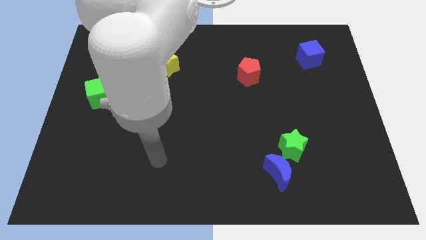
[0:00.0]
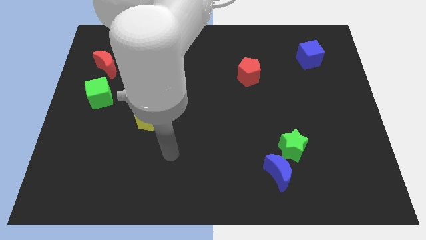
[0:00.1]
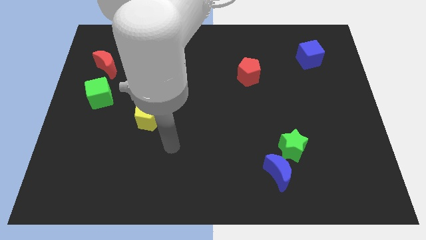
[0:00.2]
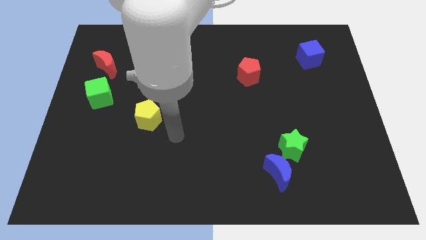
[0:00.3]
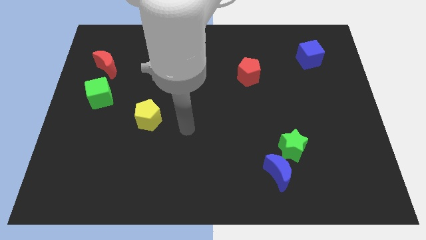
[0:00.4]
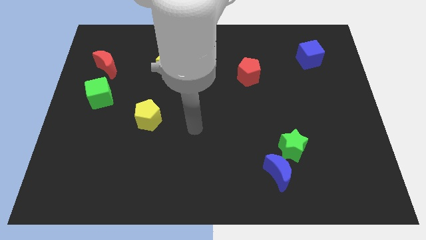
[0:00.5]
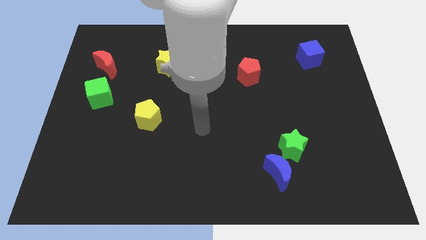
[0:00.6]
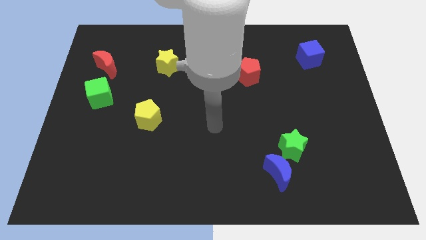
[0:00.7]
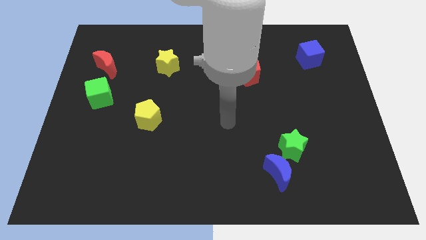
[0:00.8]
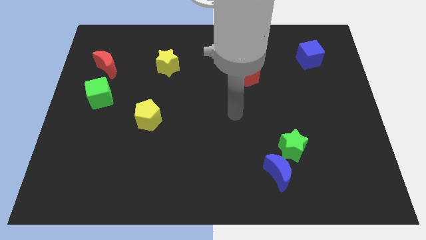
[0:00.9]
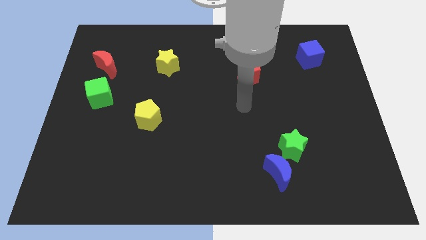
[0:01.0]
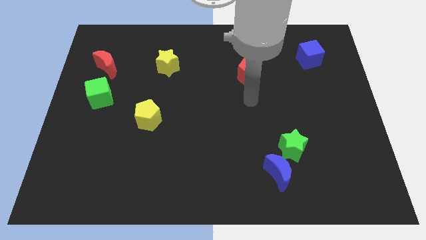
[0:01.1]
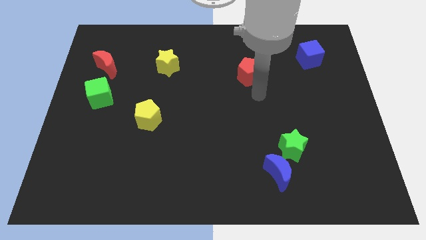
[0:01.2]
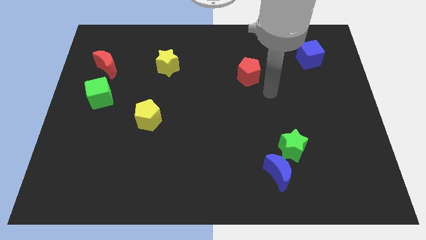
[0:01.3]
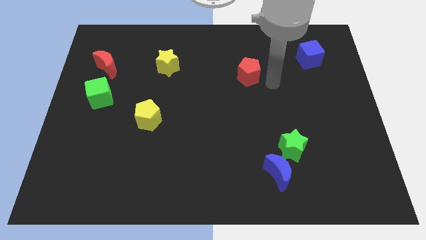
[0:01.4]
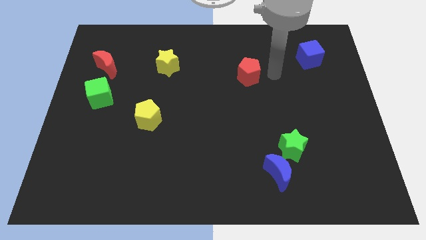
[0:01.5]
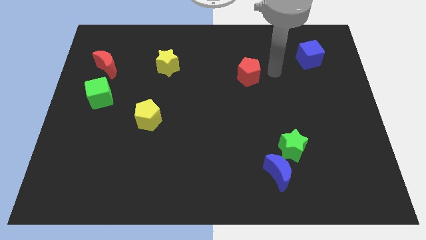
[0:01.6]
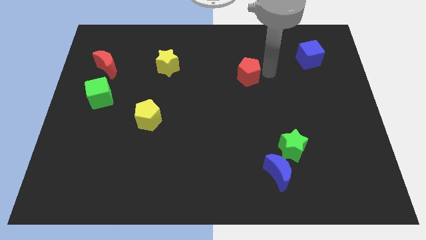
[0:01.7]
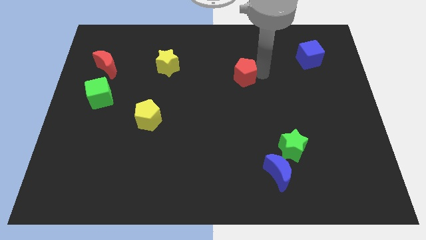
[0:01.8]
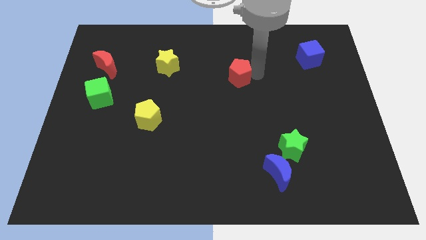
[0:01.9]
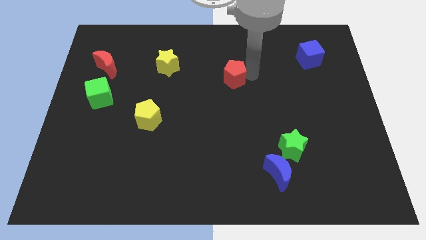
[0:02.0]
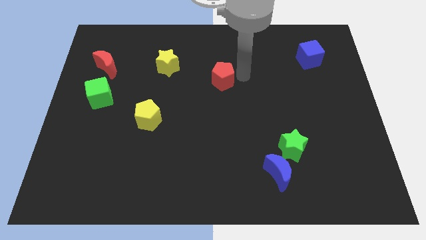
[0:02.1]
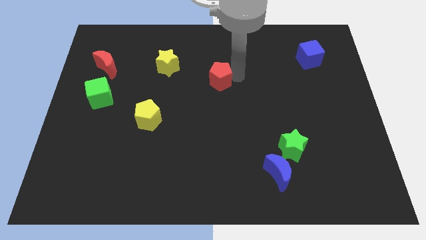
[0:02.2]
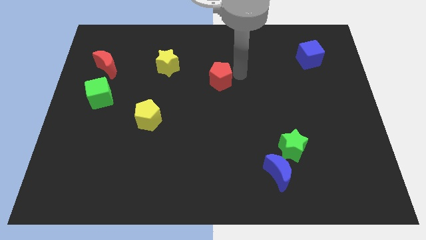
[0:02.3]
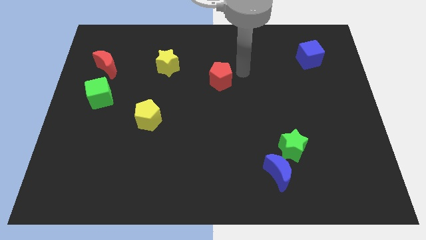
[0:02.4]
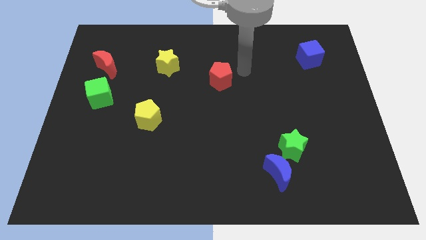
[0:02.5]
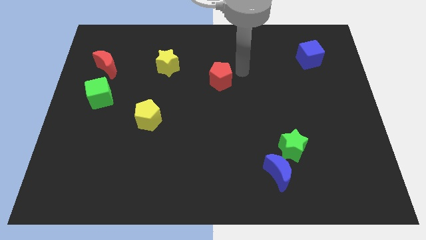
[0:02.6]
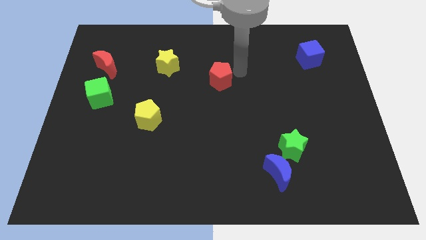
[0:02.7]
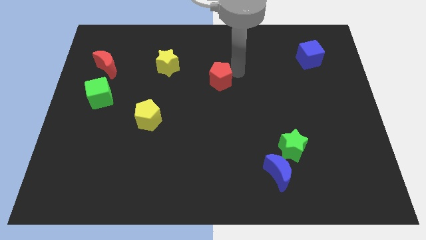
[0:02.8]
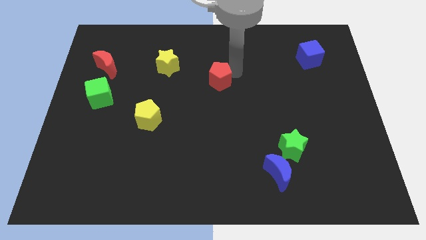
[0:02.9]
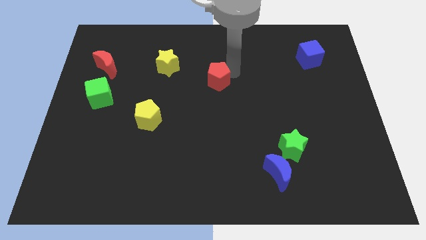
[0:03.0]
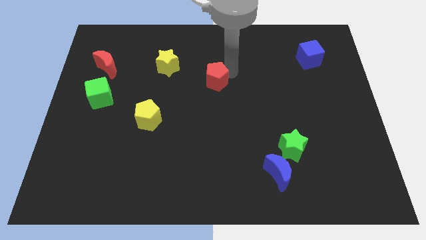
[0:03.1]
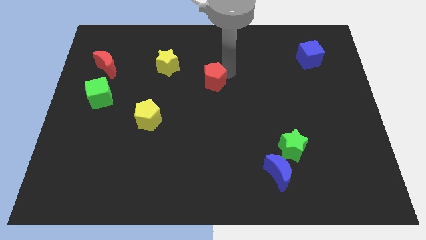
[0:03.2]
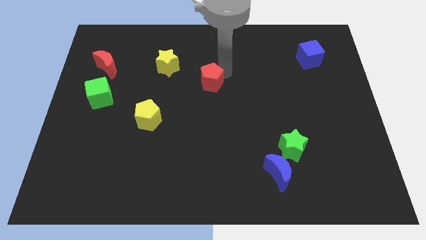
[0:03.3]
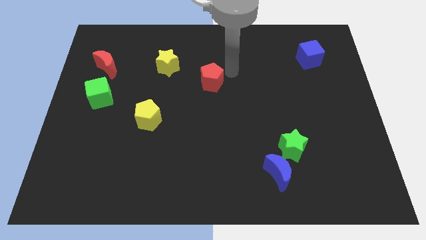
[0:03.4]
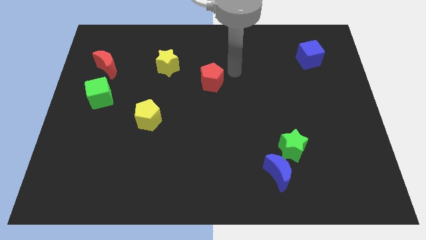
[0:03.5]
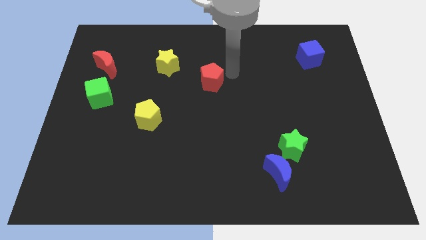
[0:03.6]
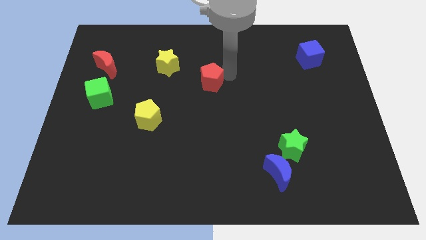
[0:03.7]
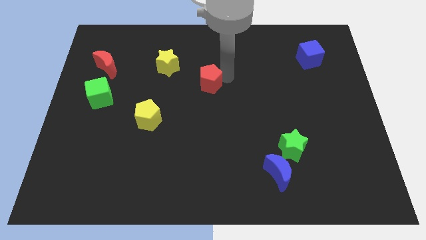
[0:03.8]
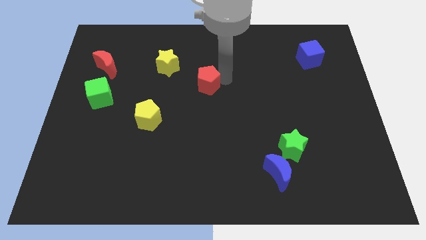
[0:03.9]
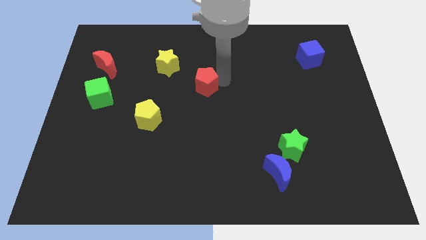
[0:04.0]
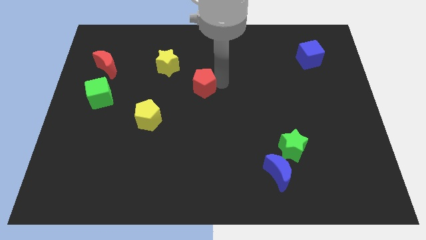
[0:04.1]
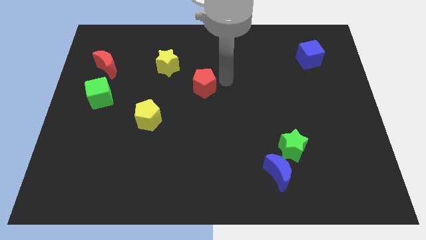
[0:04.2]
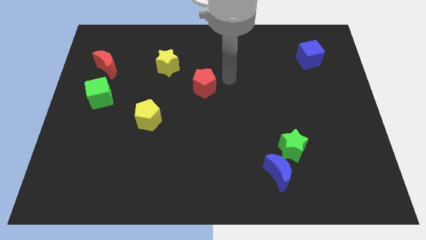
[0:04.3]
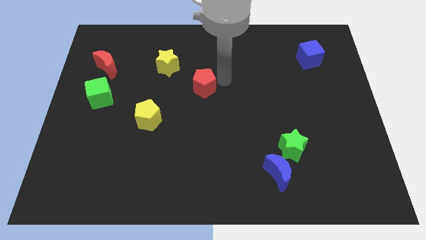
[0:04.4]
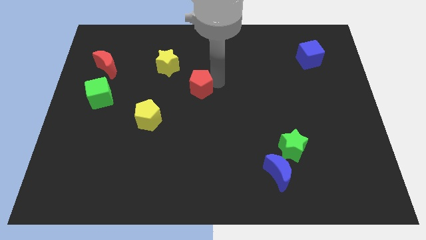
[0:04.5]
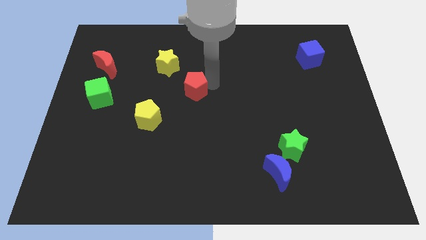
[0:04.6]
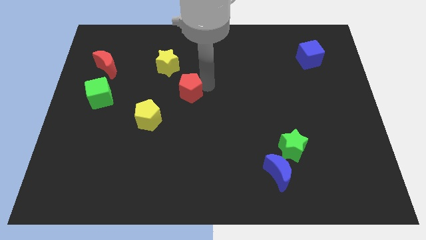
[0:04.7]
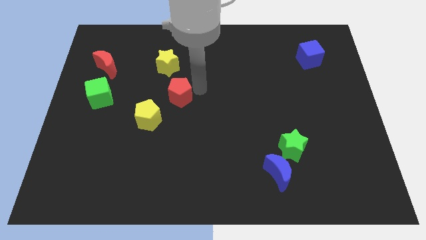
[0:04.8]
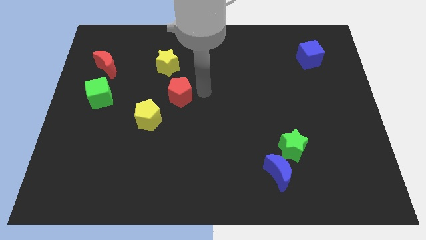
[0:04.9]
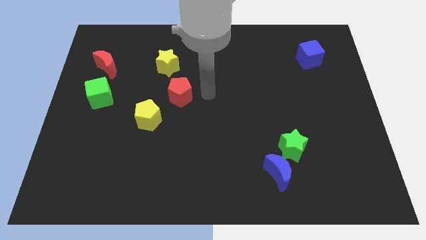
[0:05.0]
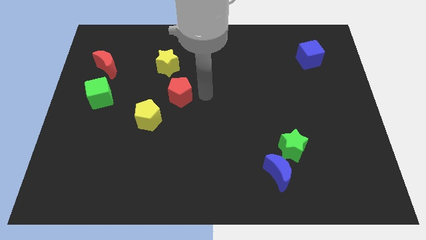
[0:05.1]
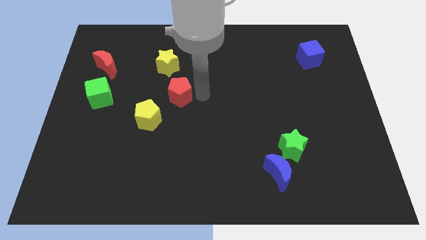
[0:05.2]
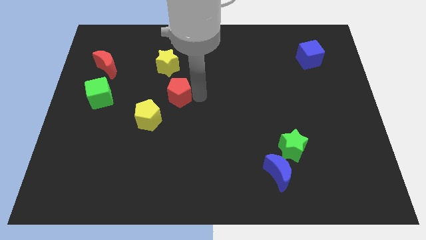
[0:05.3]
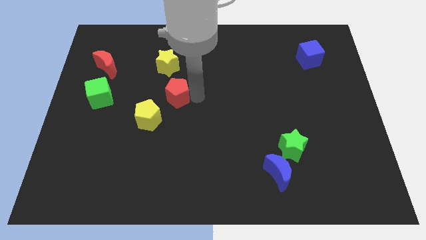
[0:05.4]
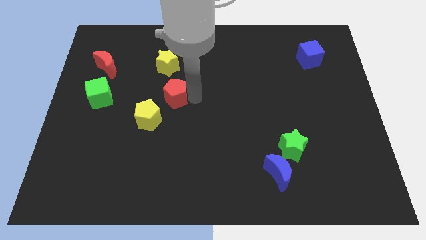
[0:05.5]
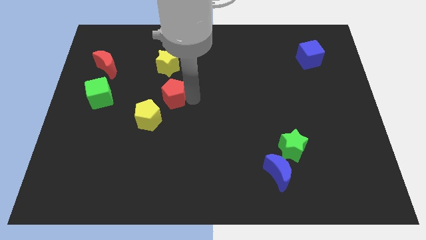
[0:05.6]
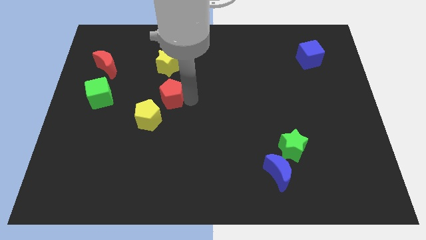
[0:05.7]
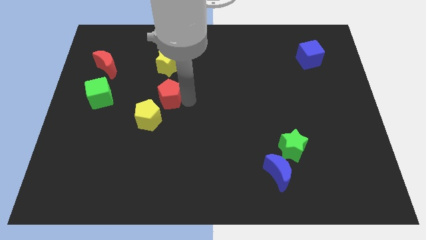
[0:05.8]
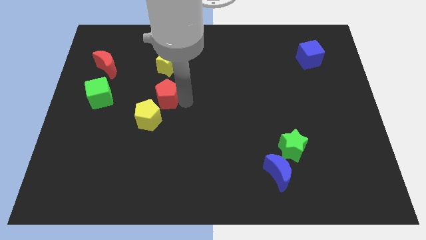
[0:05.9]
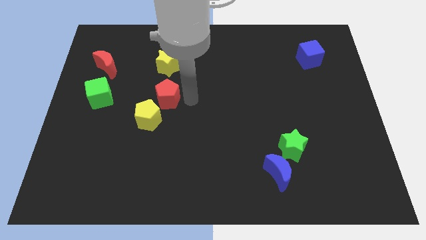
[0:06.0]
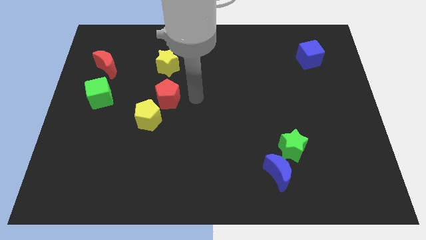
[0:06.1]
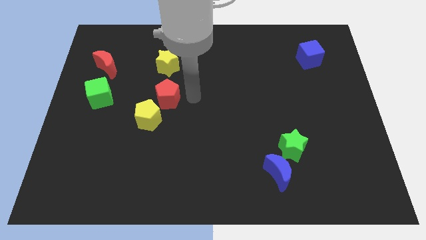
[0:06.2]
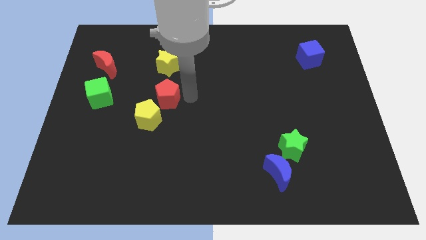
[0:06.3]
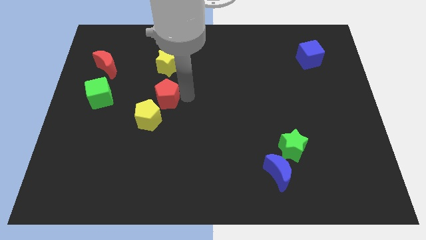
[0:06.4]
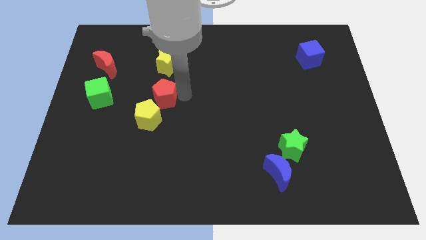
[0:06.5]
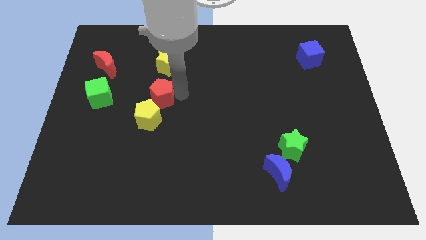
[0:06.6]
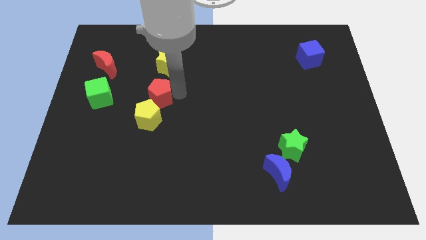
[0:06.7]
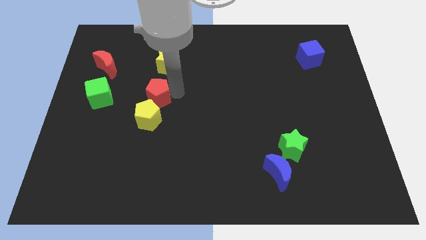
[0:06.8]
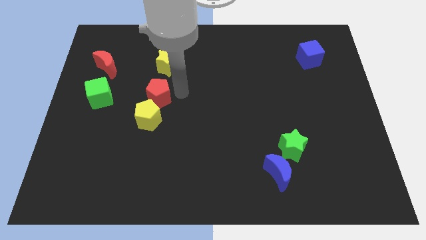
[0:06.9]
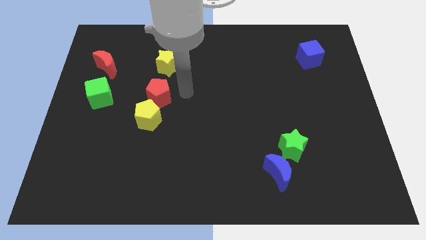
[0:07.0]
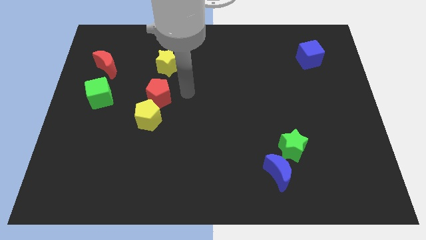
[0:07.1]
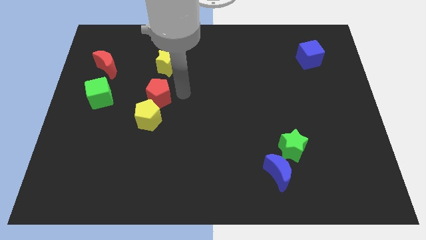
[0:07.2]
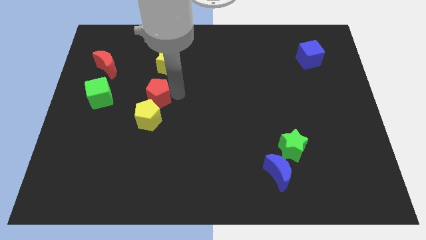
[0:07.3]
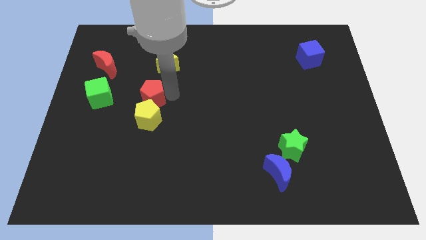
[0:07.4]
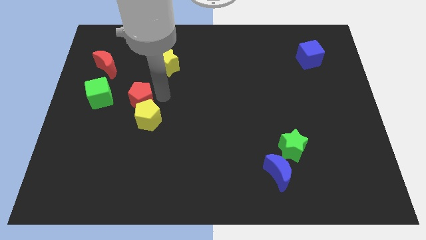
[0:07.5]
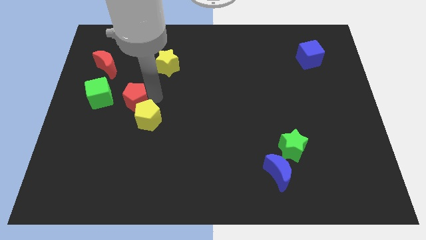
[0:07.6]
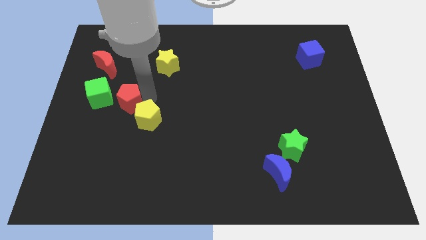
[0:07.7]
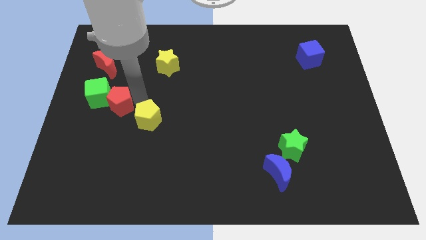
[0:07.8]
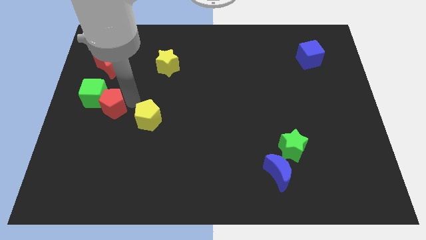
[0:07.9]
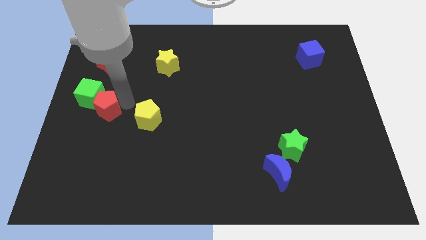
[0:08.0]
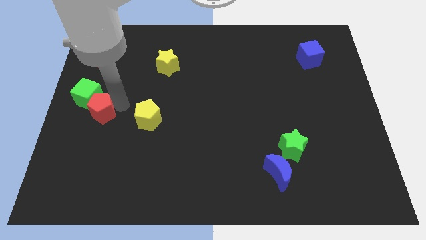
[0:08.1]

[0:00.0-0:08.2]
slide the red pentagon to the left side

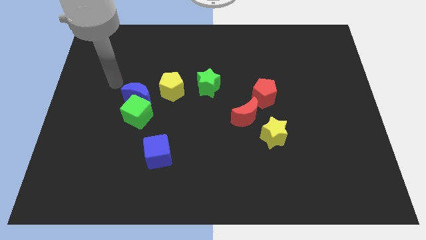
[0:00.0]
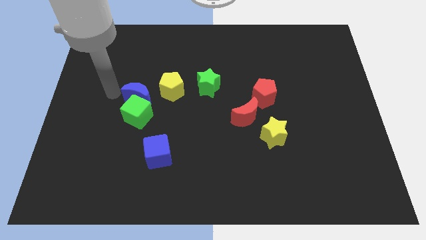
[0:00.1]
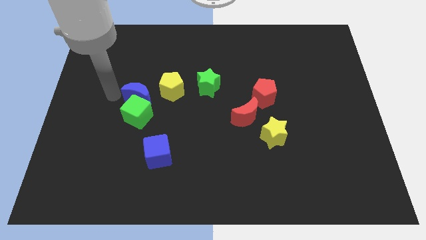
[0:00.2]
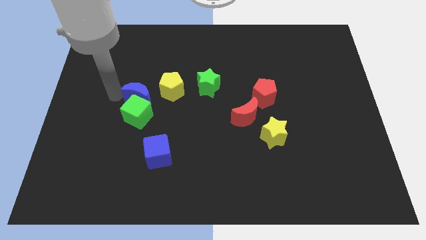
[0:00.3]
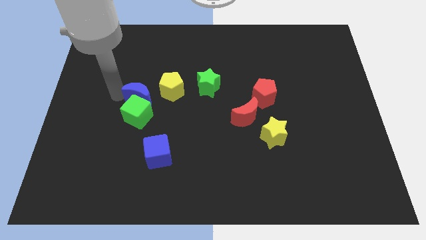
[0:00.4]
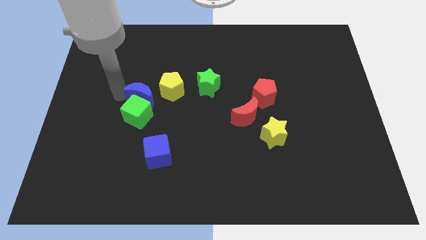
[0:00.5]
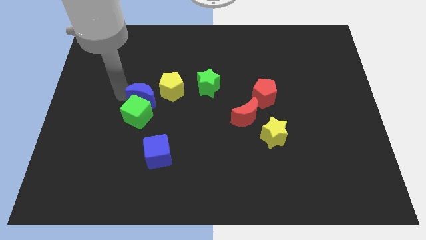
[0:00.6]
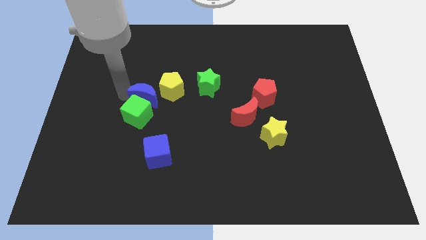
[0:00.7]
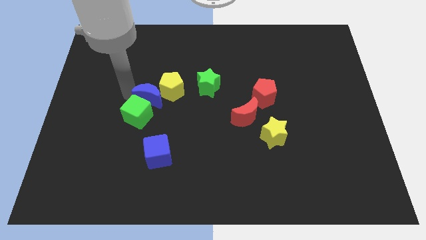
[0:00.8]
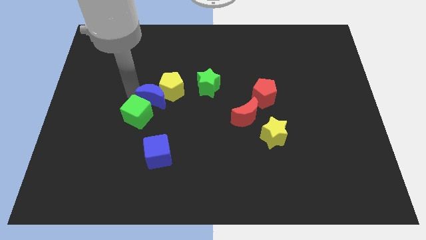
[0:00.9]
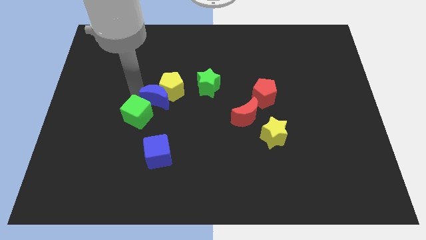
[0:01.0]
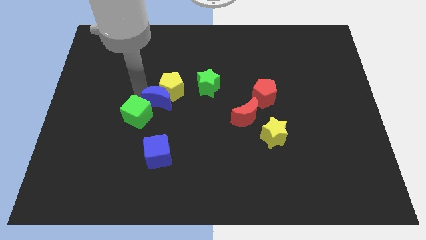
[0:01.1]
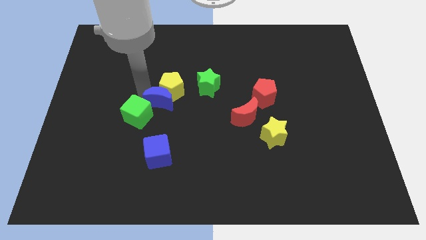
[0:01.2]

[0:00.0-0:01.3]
push the blue moon to the center
